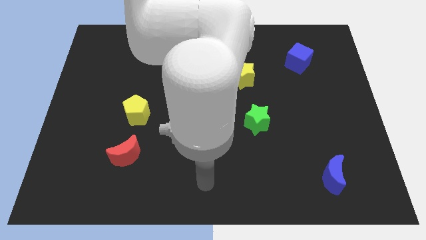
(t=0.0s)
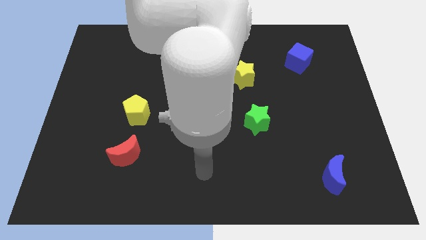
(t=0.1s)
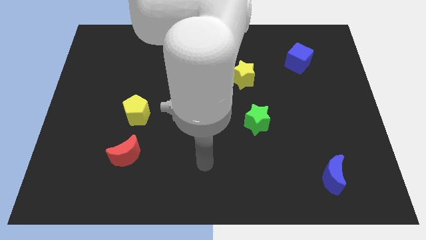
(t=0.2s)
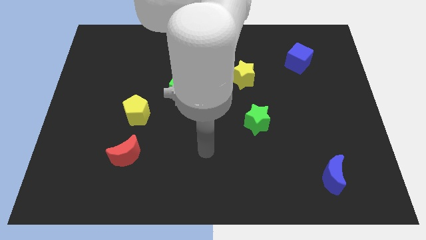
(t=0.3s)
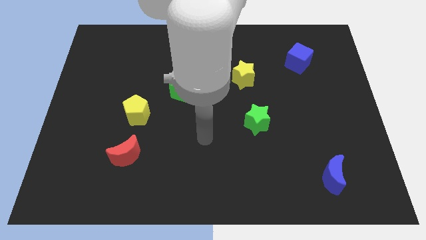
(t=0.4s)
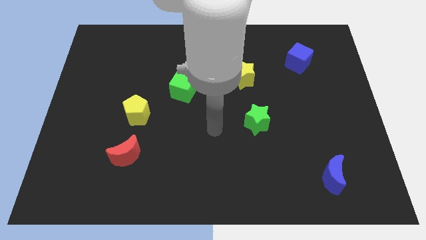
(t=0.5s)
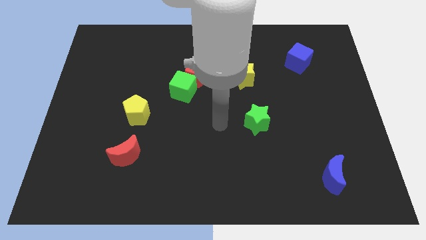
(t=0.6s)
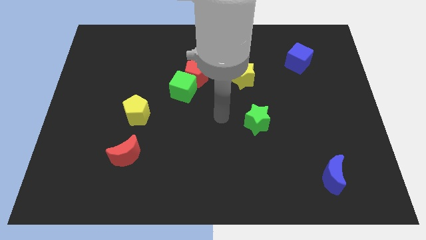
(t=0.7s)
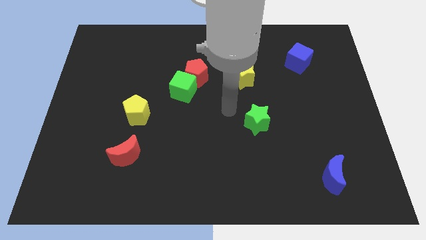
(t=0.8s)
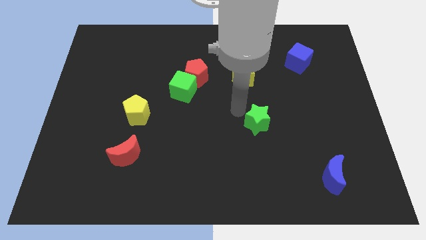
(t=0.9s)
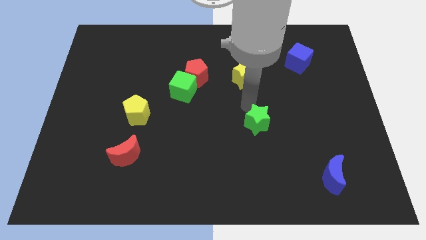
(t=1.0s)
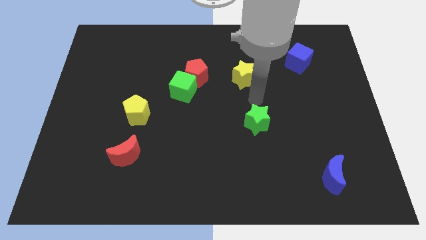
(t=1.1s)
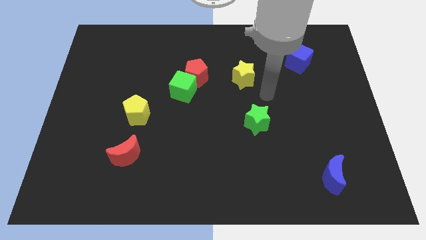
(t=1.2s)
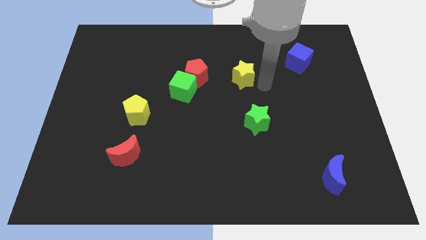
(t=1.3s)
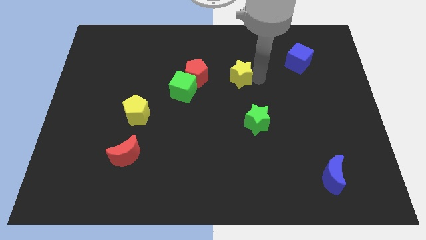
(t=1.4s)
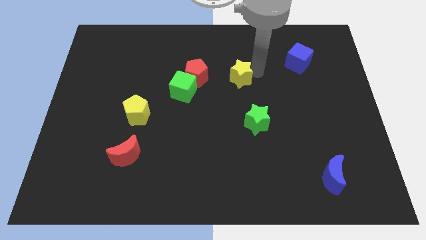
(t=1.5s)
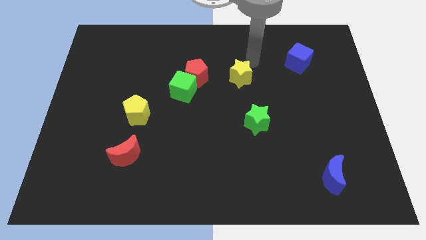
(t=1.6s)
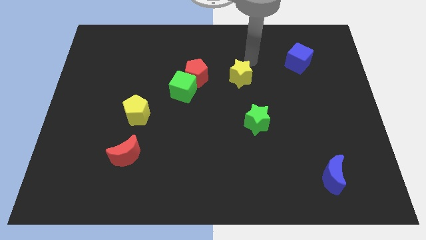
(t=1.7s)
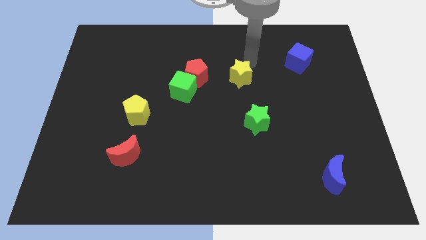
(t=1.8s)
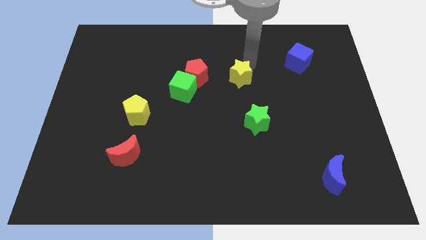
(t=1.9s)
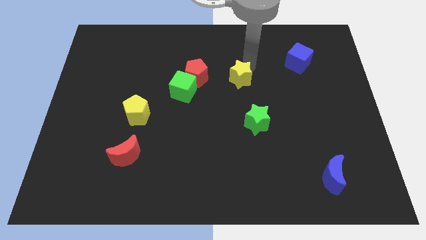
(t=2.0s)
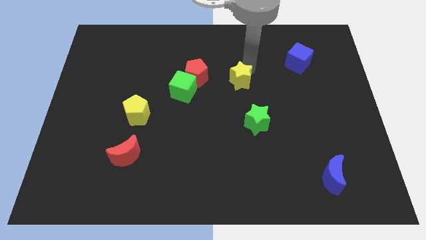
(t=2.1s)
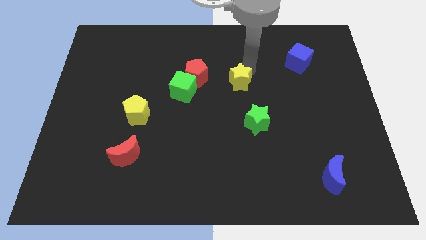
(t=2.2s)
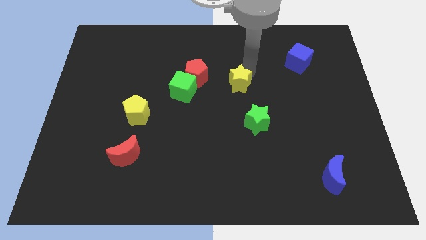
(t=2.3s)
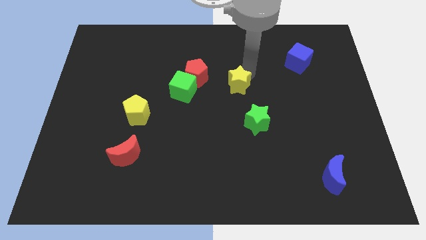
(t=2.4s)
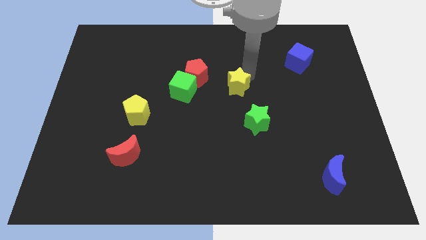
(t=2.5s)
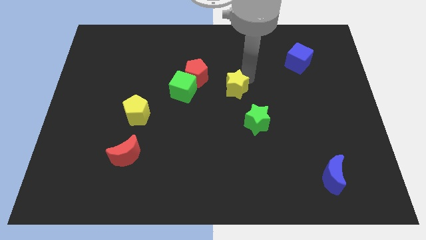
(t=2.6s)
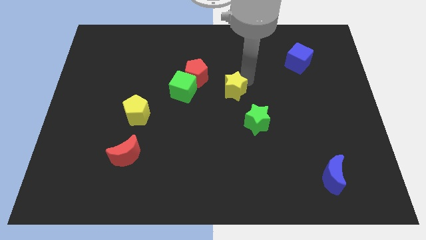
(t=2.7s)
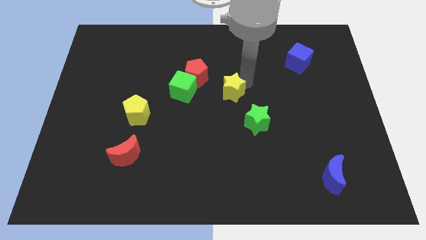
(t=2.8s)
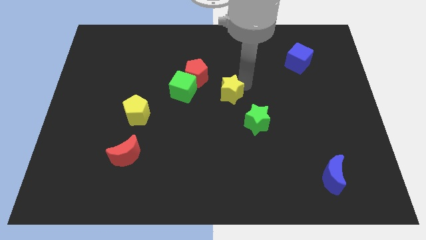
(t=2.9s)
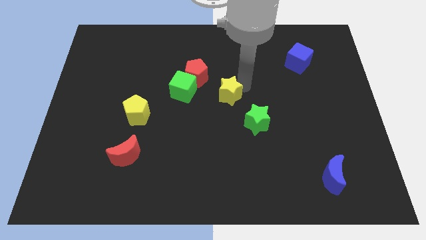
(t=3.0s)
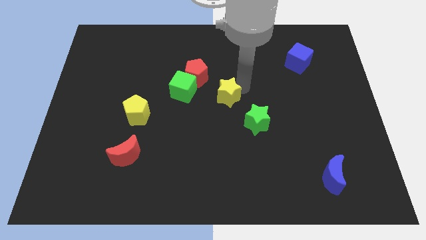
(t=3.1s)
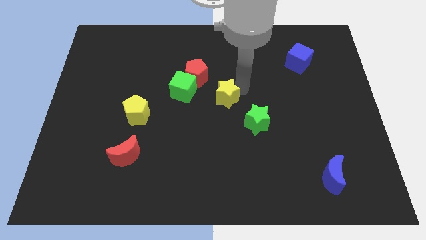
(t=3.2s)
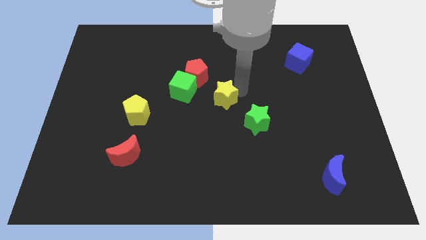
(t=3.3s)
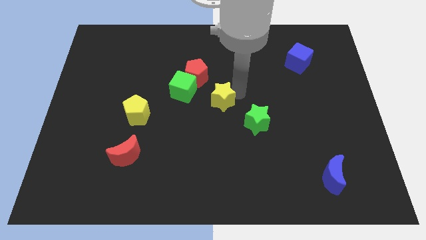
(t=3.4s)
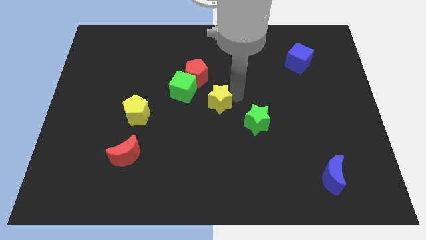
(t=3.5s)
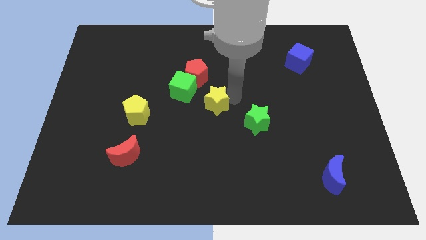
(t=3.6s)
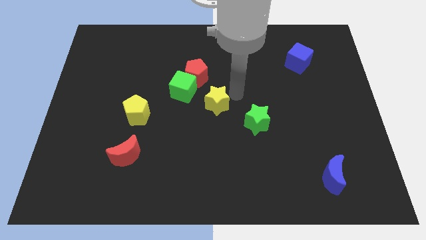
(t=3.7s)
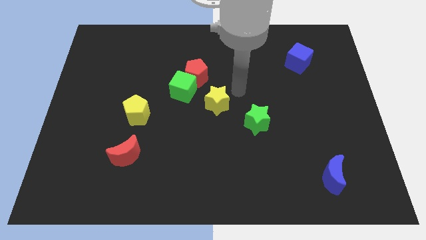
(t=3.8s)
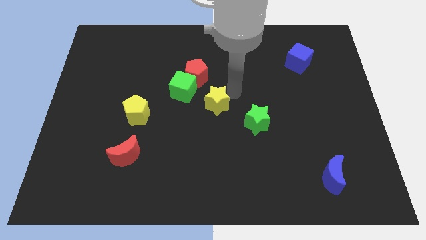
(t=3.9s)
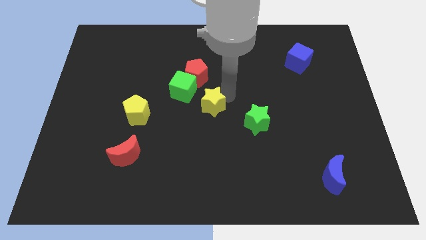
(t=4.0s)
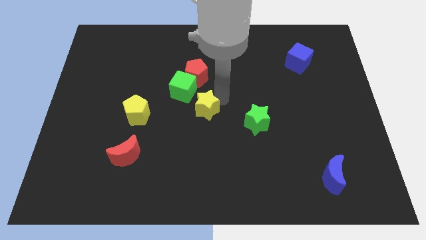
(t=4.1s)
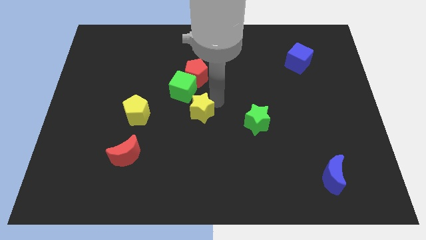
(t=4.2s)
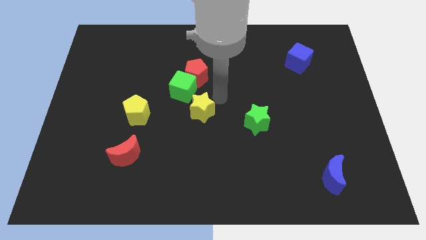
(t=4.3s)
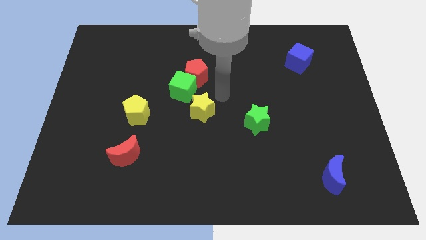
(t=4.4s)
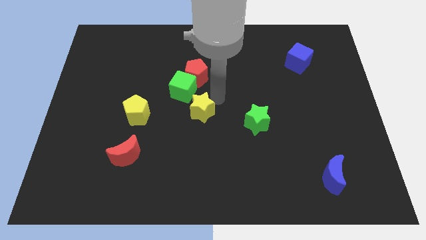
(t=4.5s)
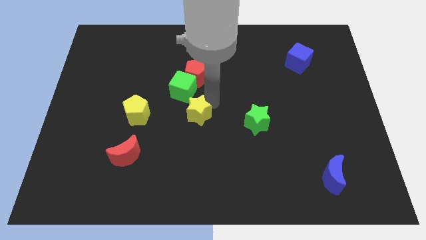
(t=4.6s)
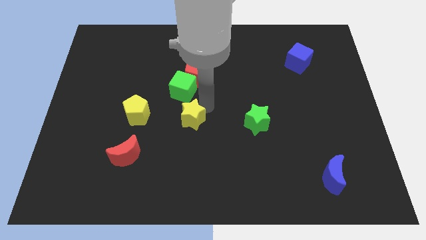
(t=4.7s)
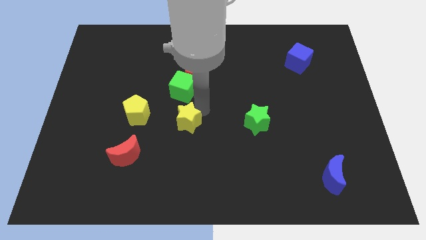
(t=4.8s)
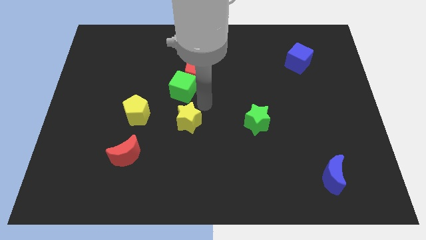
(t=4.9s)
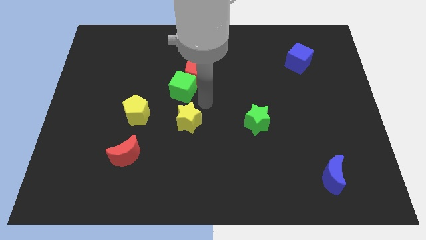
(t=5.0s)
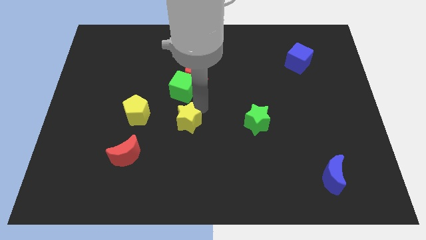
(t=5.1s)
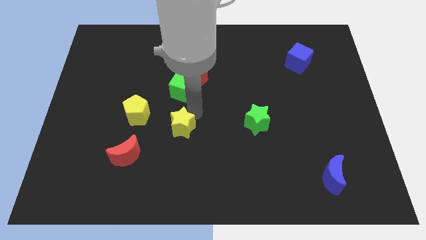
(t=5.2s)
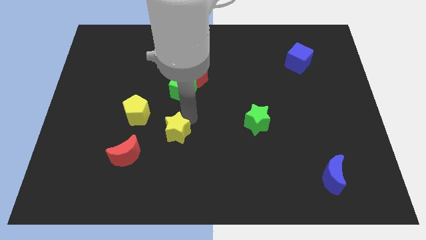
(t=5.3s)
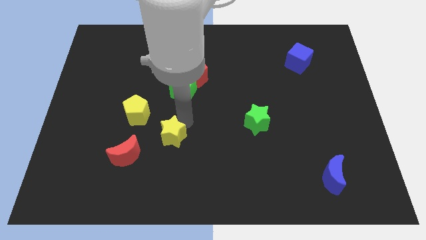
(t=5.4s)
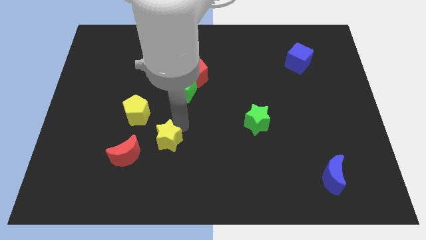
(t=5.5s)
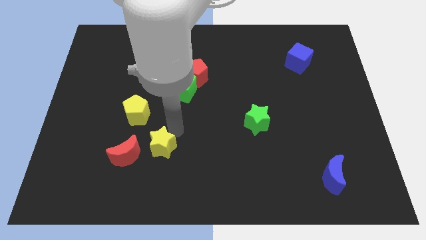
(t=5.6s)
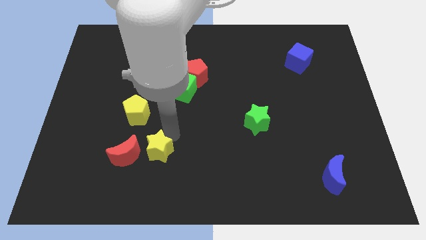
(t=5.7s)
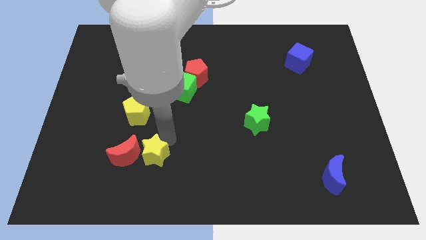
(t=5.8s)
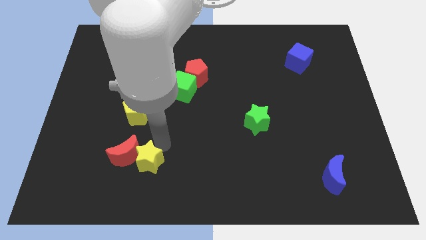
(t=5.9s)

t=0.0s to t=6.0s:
push the yellow star to the bottom side of the yellow pentagon

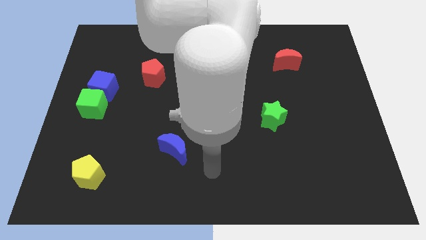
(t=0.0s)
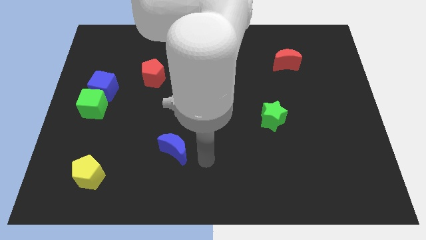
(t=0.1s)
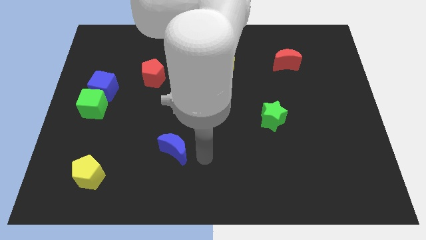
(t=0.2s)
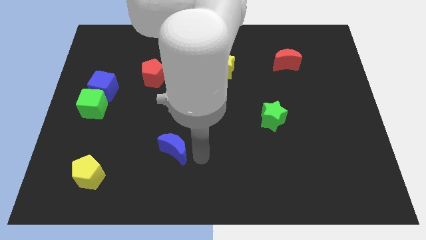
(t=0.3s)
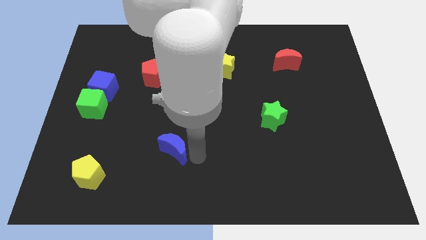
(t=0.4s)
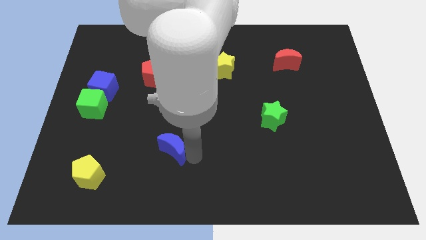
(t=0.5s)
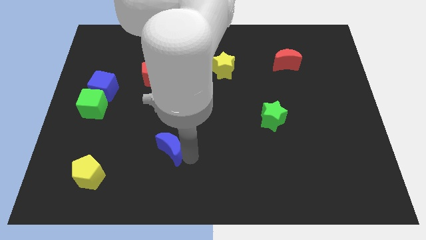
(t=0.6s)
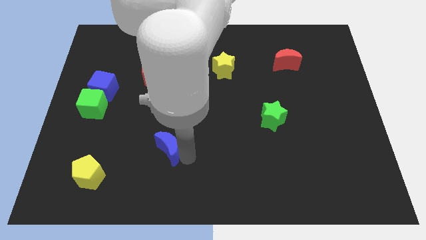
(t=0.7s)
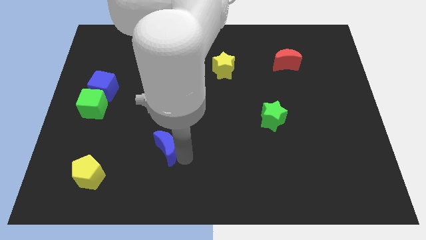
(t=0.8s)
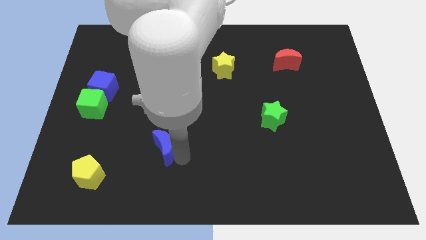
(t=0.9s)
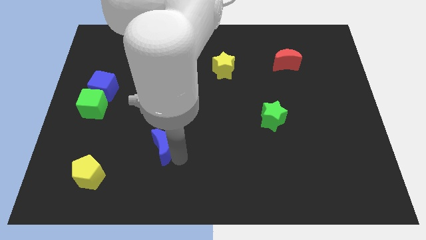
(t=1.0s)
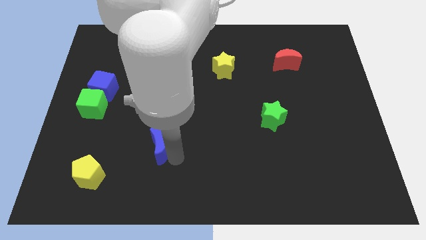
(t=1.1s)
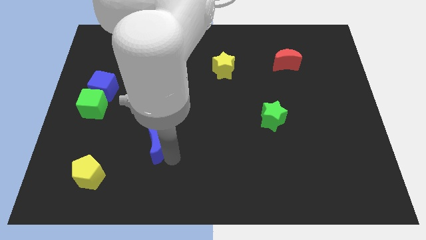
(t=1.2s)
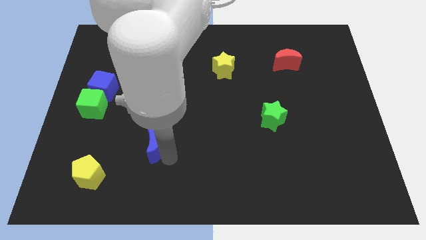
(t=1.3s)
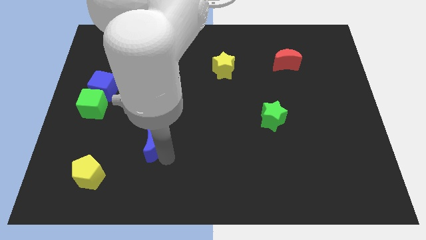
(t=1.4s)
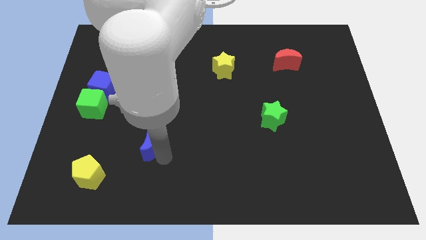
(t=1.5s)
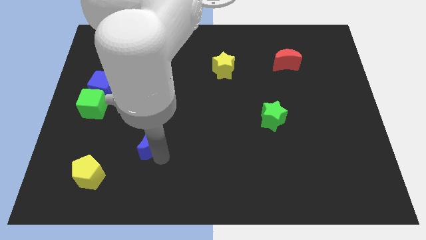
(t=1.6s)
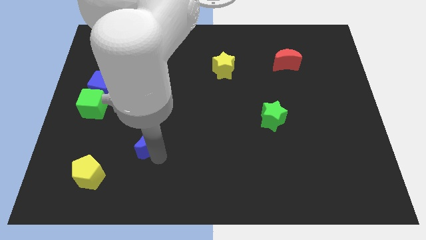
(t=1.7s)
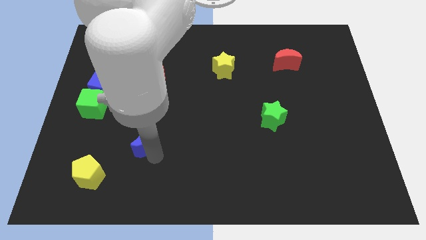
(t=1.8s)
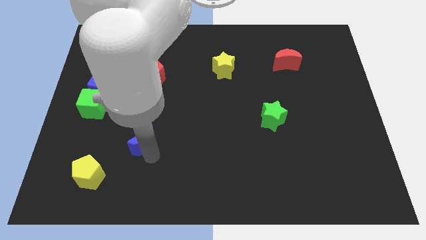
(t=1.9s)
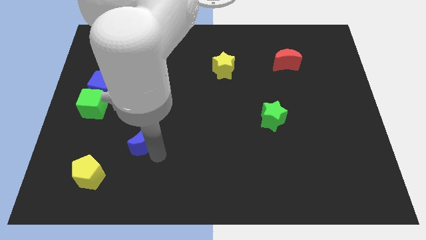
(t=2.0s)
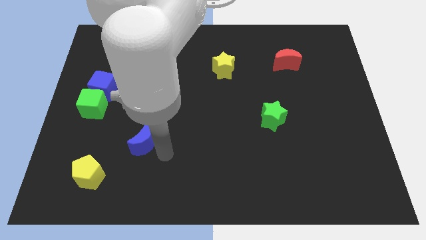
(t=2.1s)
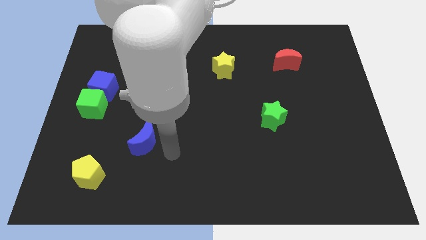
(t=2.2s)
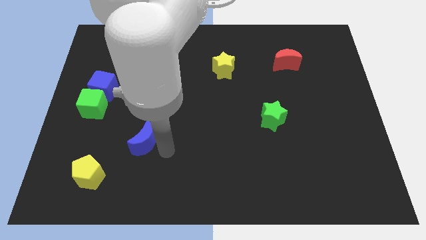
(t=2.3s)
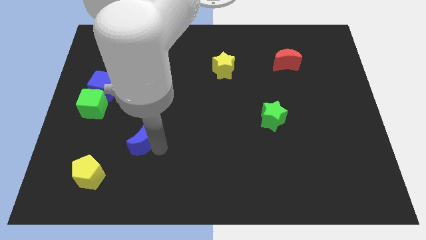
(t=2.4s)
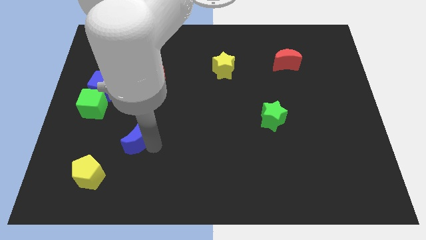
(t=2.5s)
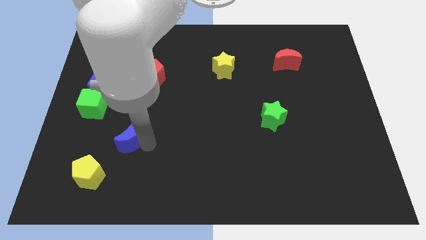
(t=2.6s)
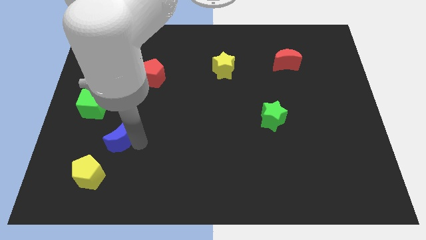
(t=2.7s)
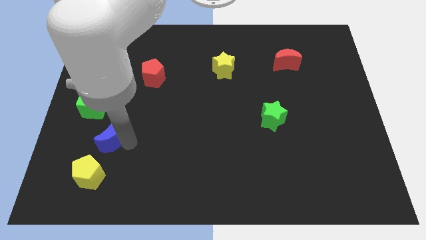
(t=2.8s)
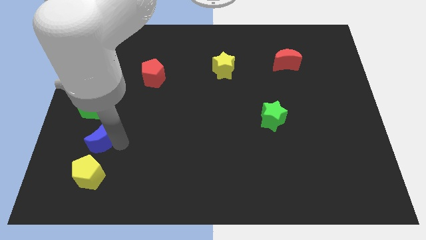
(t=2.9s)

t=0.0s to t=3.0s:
slide the blue moon below the blue cube
